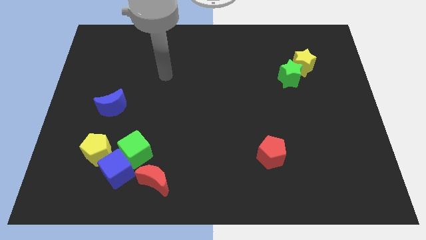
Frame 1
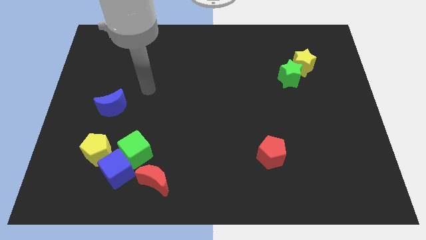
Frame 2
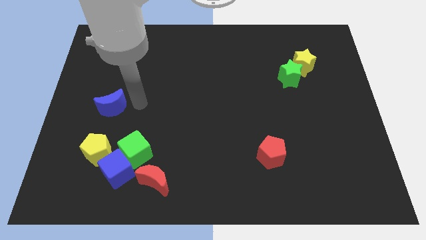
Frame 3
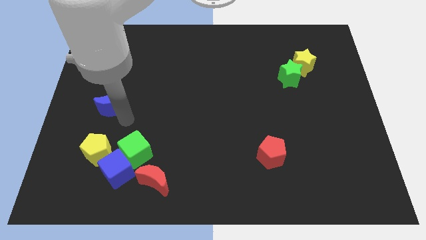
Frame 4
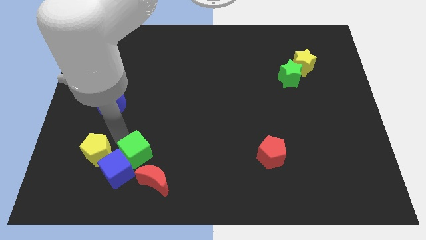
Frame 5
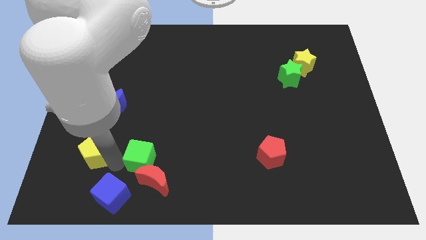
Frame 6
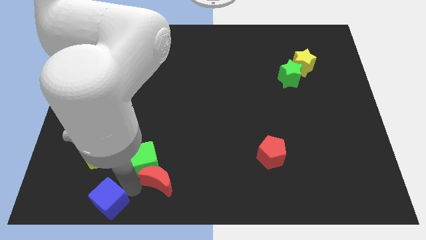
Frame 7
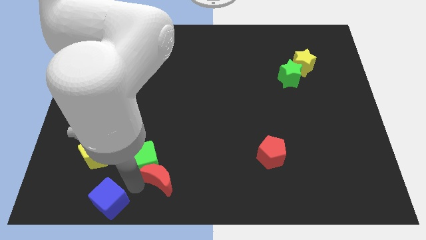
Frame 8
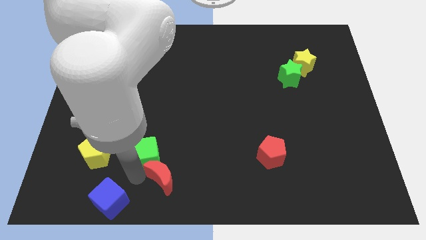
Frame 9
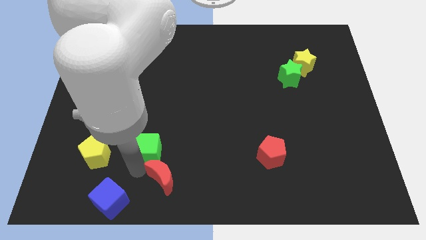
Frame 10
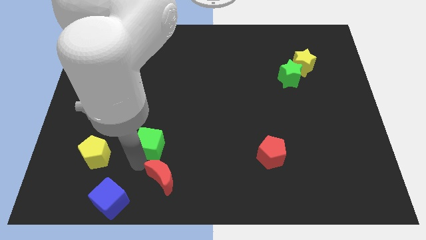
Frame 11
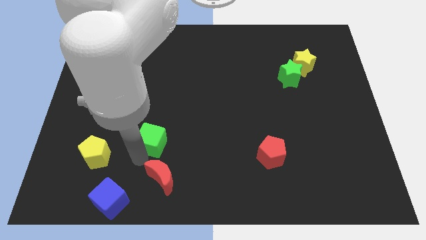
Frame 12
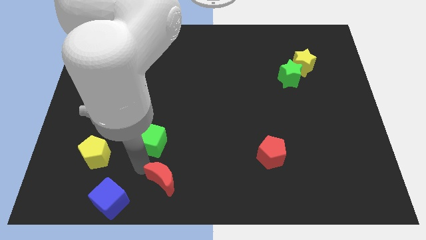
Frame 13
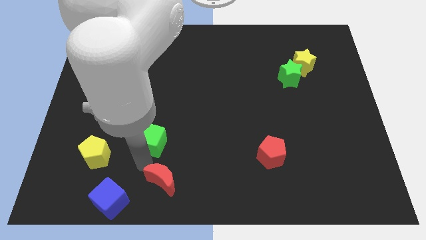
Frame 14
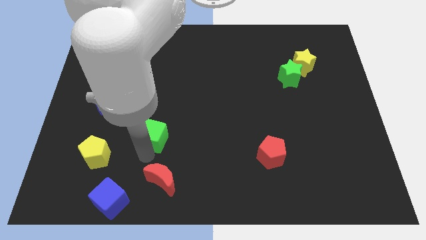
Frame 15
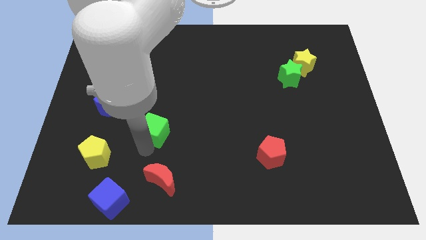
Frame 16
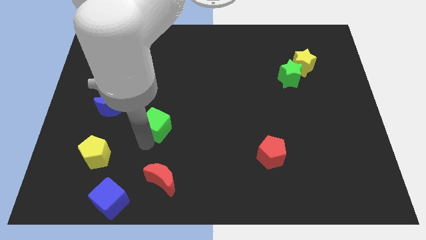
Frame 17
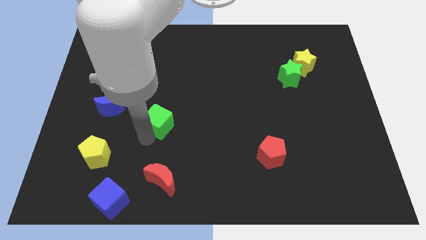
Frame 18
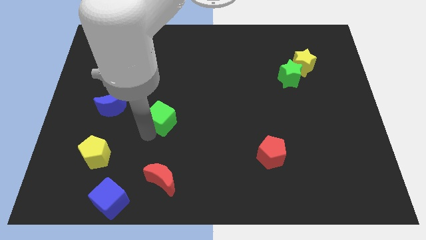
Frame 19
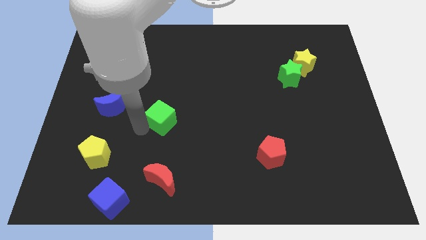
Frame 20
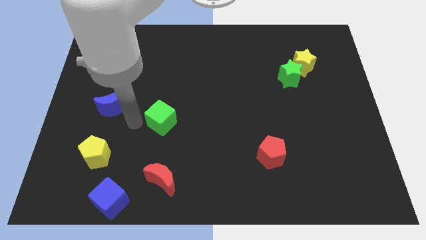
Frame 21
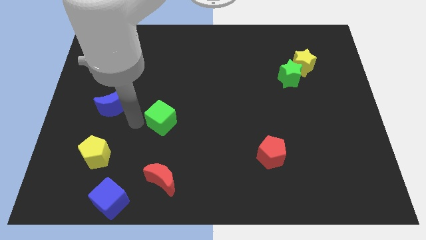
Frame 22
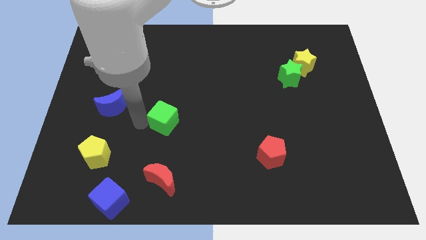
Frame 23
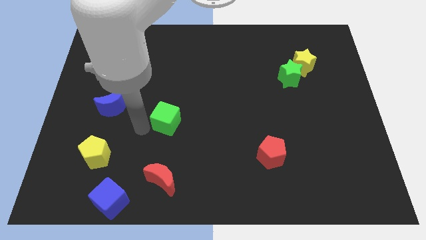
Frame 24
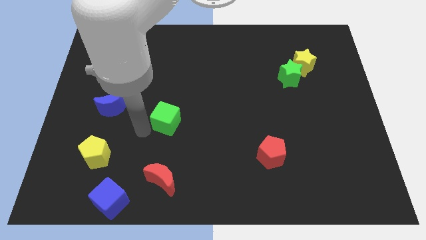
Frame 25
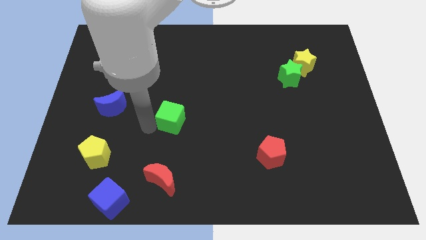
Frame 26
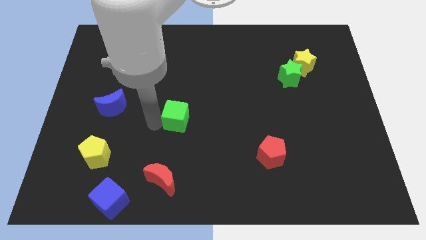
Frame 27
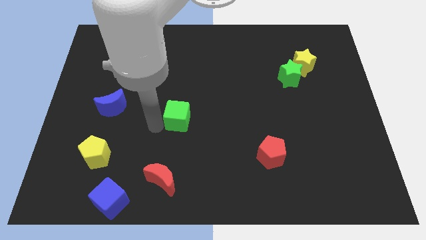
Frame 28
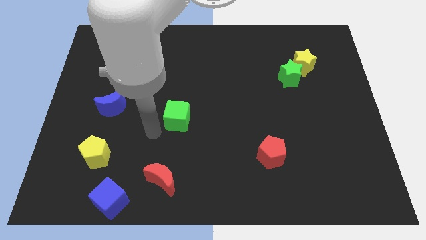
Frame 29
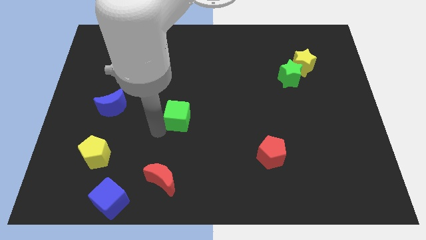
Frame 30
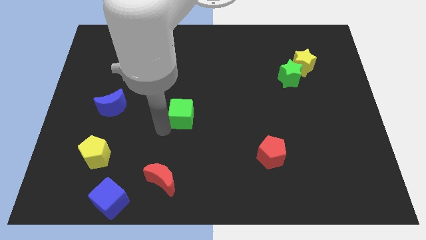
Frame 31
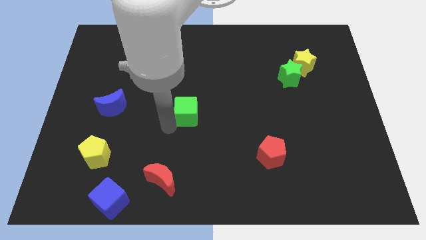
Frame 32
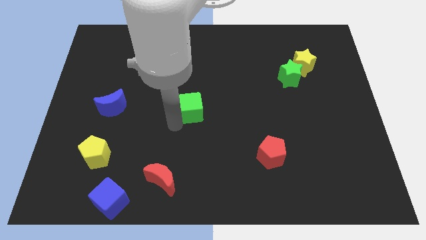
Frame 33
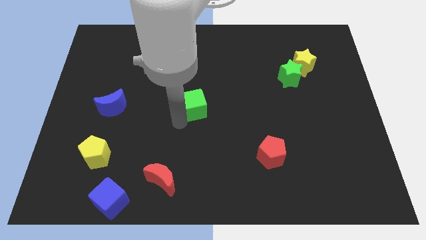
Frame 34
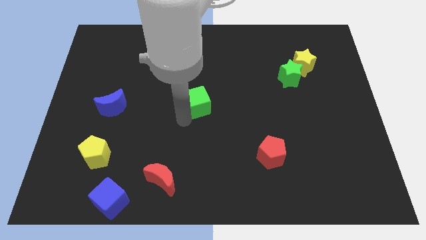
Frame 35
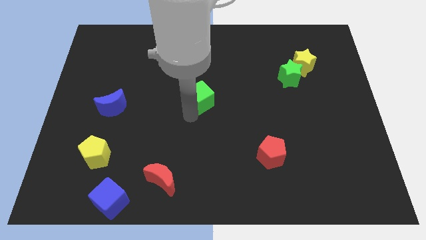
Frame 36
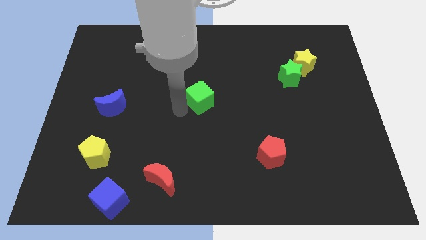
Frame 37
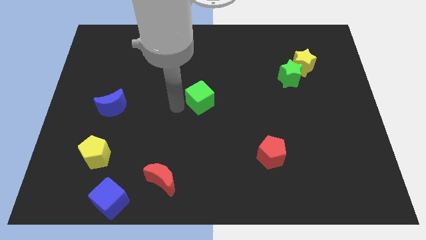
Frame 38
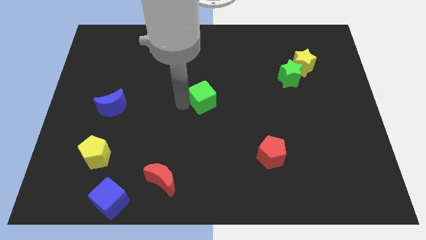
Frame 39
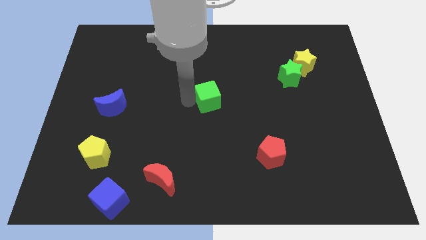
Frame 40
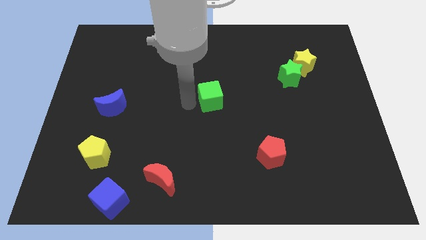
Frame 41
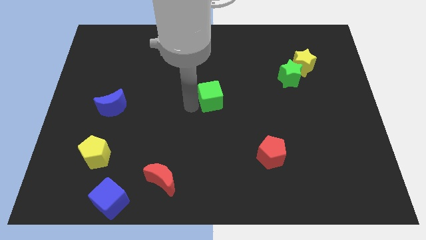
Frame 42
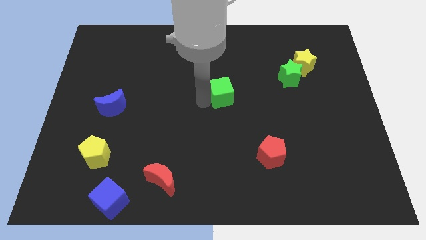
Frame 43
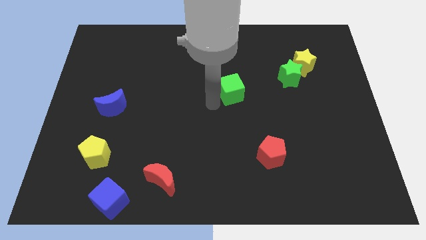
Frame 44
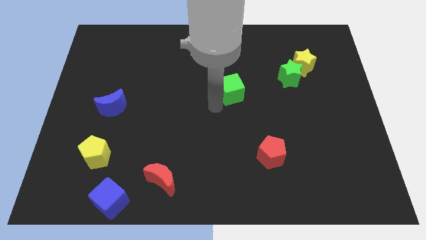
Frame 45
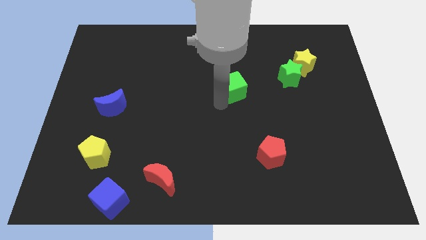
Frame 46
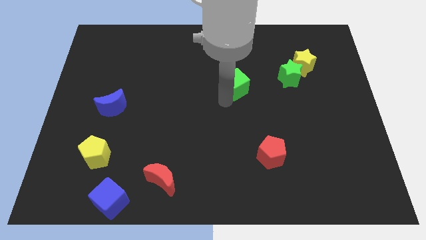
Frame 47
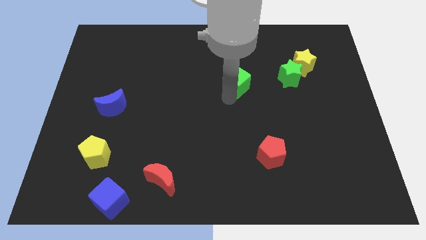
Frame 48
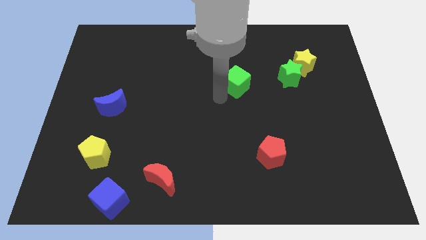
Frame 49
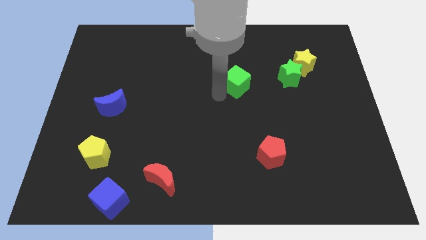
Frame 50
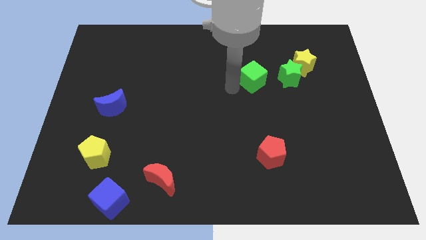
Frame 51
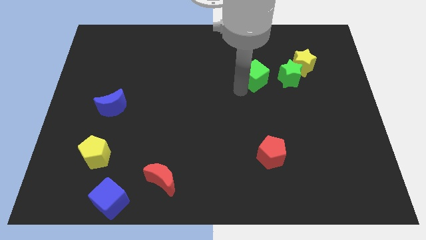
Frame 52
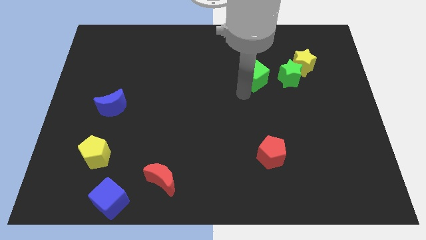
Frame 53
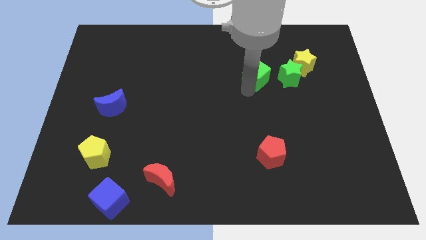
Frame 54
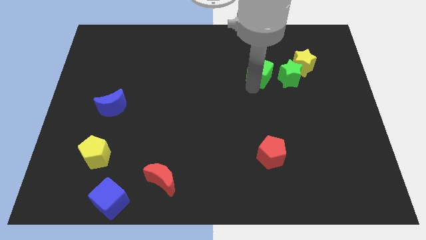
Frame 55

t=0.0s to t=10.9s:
move the green cube to the top left of the green star

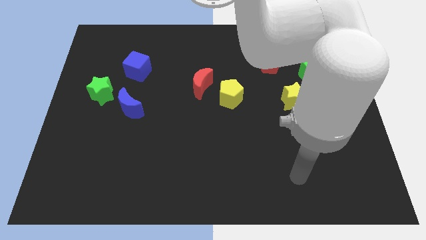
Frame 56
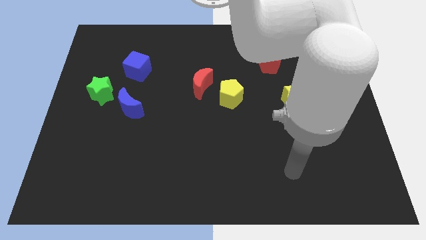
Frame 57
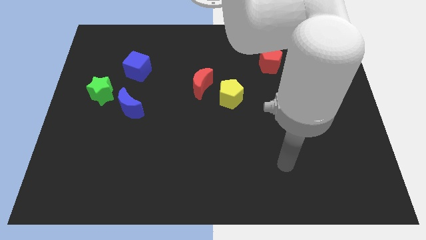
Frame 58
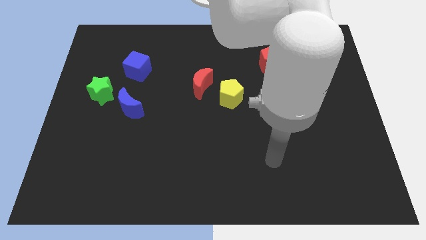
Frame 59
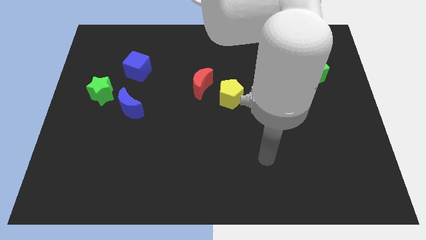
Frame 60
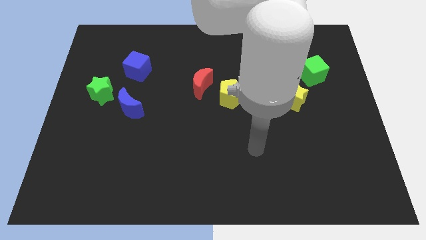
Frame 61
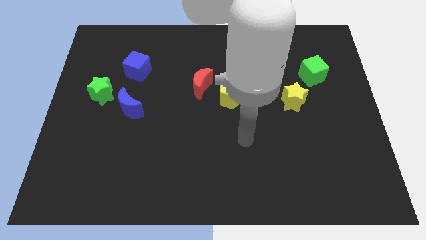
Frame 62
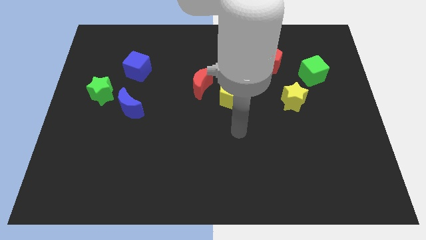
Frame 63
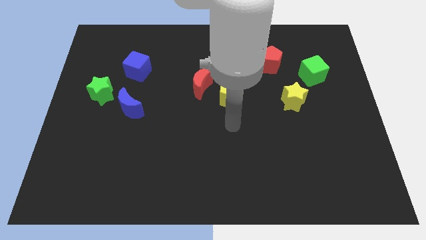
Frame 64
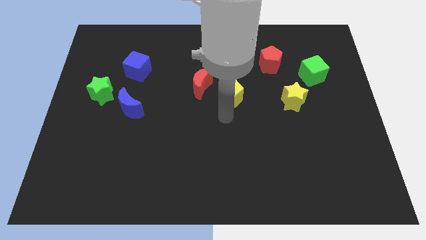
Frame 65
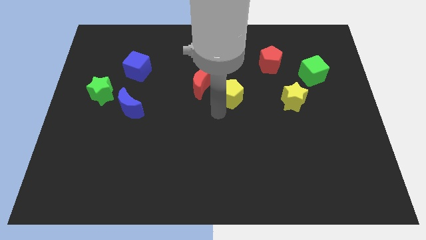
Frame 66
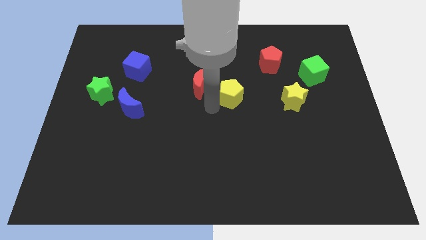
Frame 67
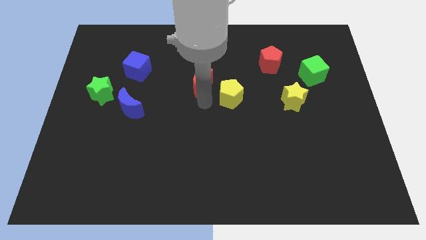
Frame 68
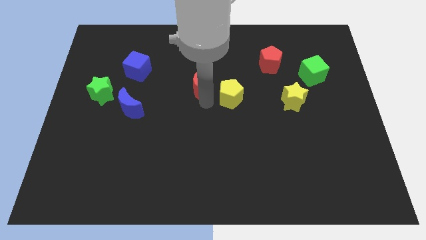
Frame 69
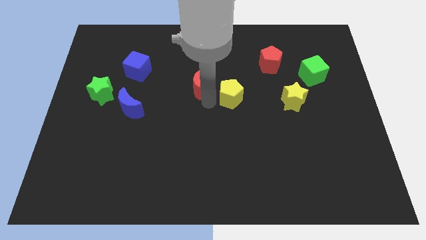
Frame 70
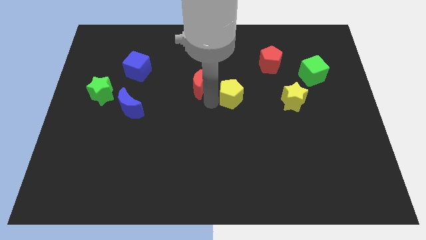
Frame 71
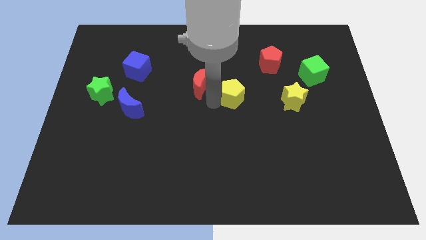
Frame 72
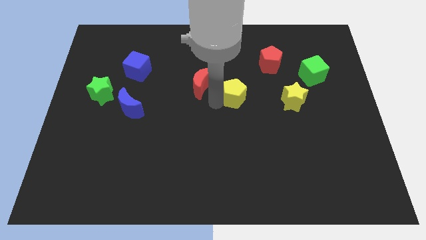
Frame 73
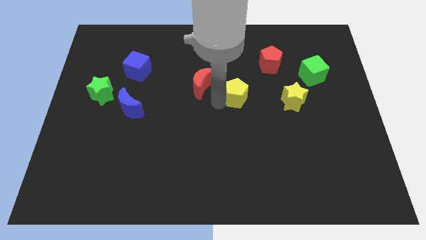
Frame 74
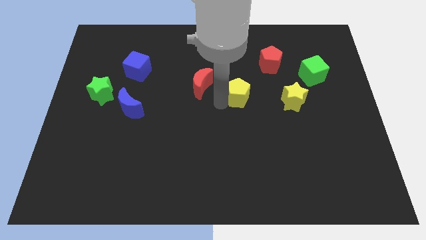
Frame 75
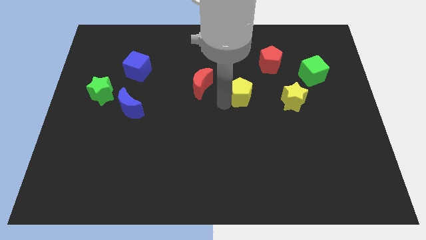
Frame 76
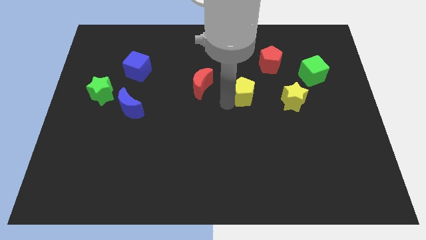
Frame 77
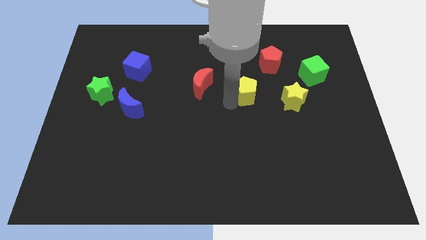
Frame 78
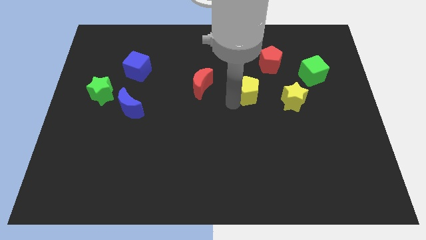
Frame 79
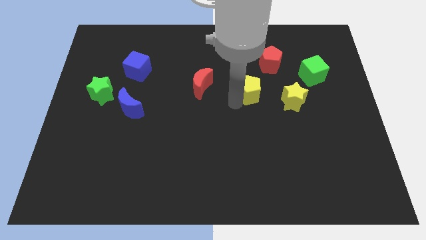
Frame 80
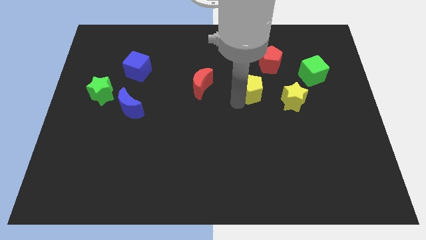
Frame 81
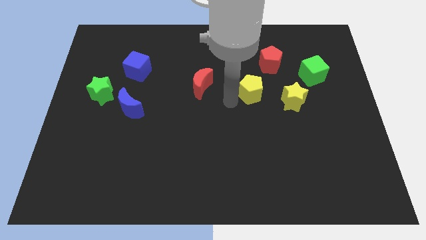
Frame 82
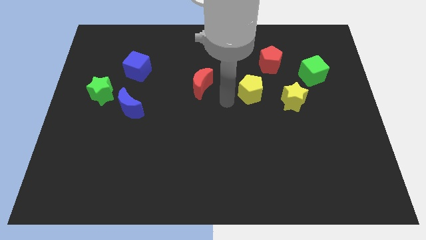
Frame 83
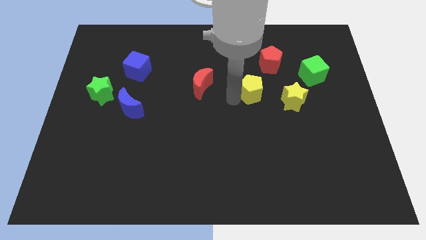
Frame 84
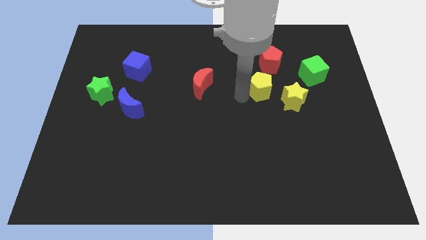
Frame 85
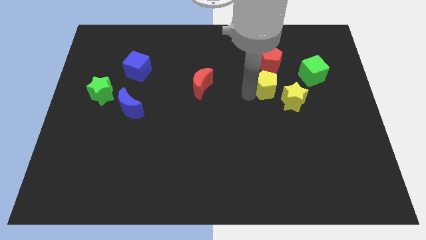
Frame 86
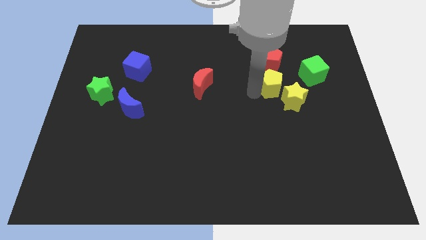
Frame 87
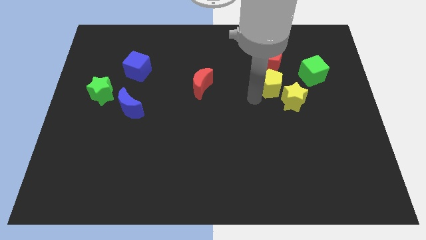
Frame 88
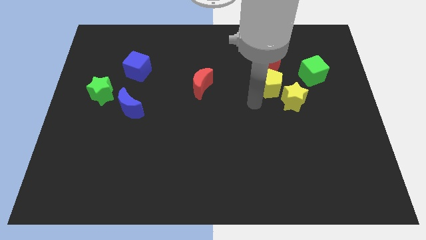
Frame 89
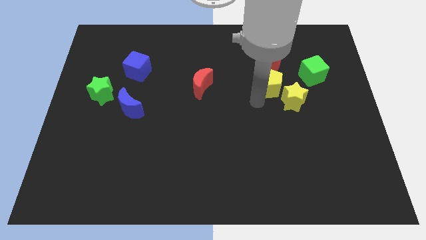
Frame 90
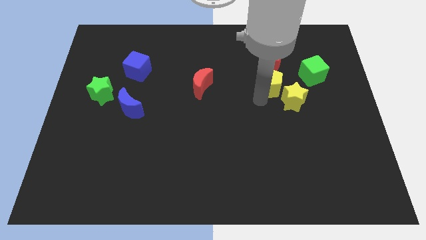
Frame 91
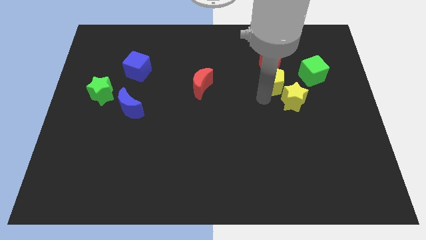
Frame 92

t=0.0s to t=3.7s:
slide the yellow pentagon to the top of the yellow star
